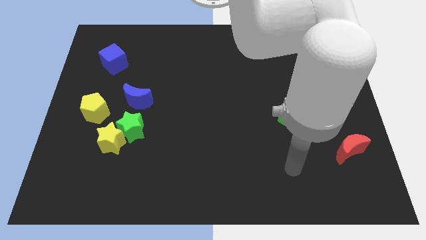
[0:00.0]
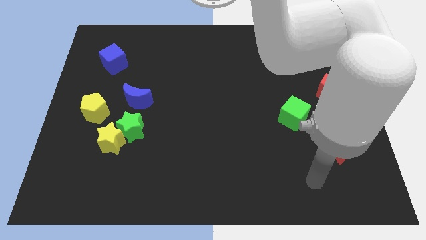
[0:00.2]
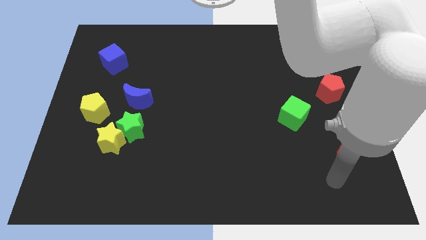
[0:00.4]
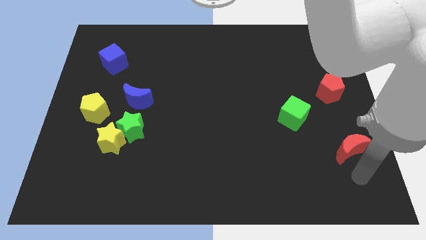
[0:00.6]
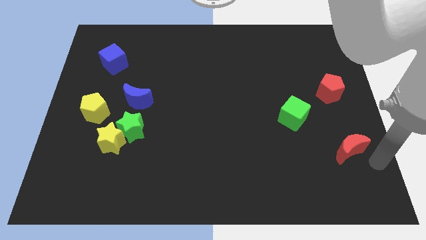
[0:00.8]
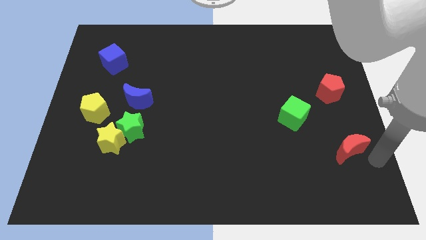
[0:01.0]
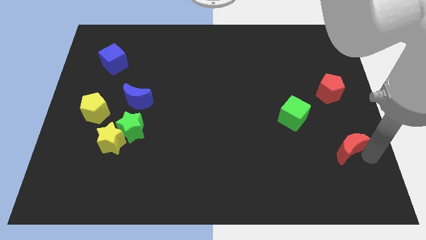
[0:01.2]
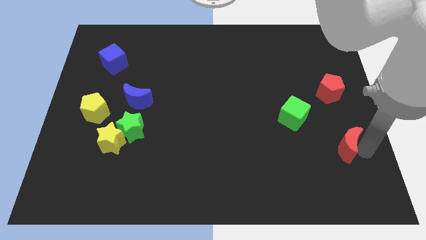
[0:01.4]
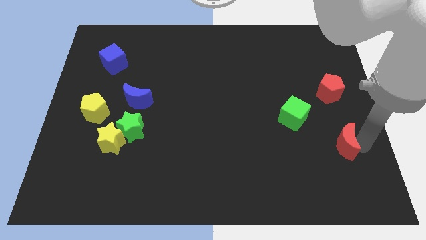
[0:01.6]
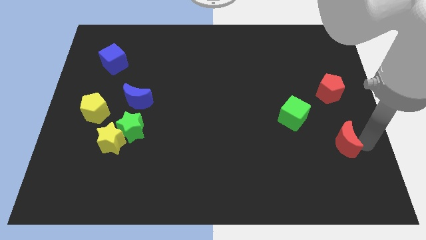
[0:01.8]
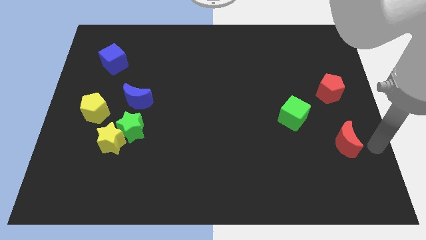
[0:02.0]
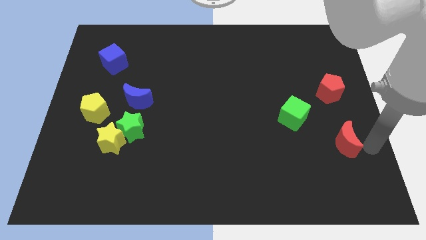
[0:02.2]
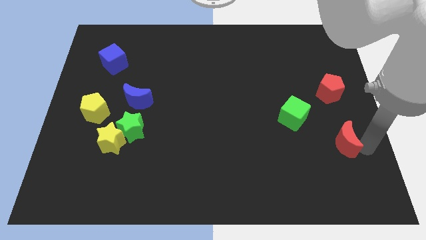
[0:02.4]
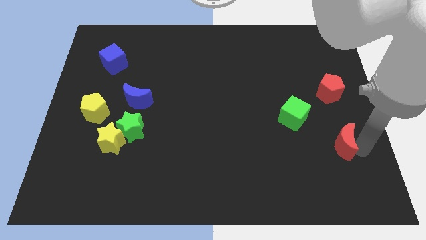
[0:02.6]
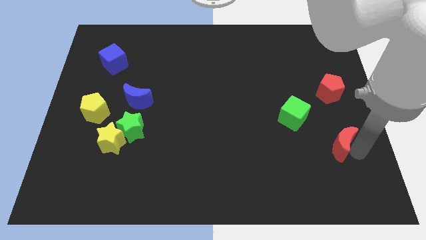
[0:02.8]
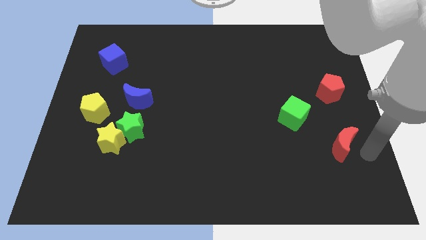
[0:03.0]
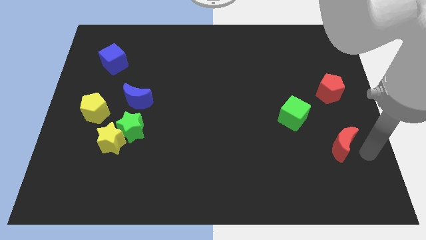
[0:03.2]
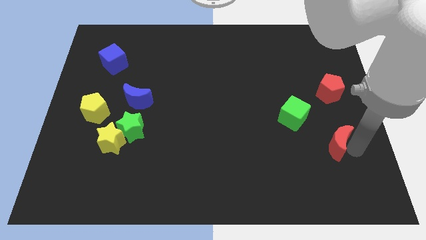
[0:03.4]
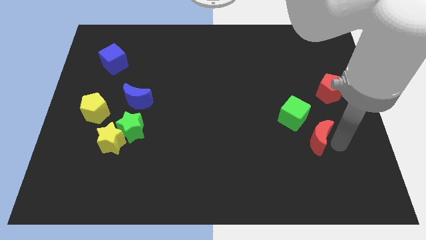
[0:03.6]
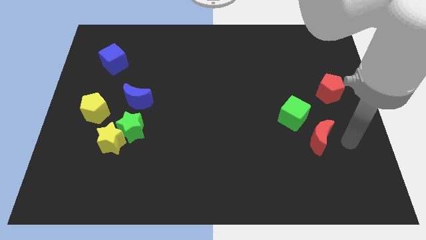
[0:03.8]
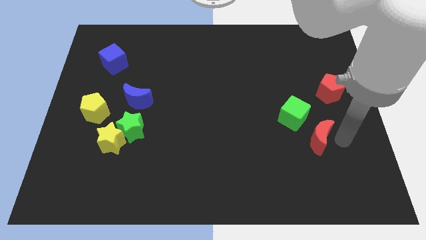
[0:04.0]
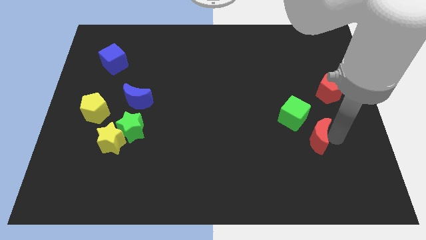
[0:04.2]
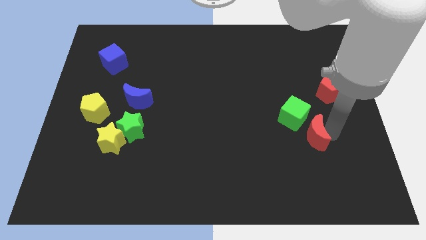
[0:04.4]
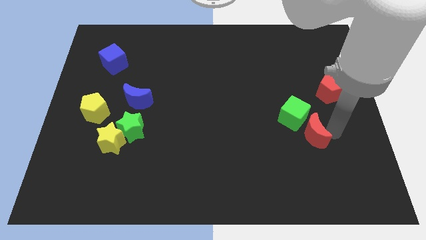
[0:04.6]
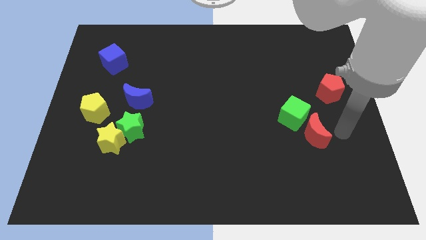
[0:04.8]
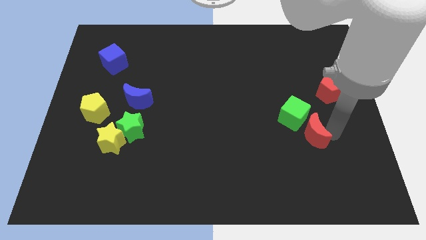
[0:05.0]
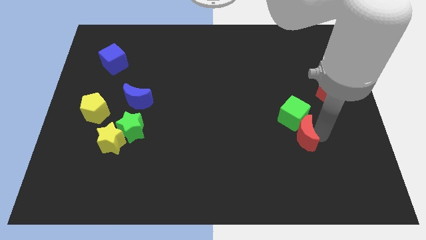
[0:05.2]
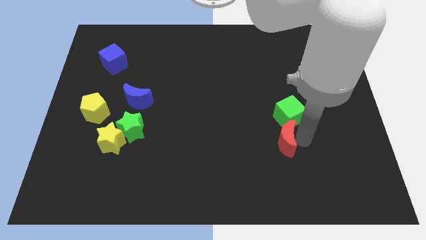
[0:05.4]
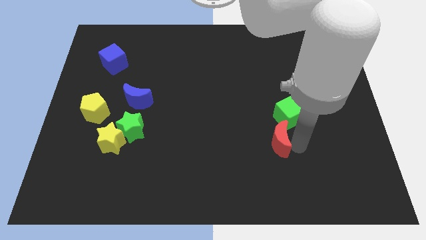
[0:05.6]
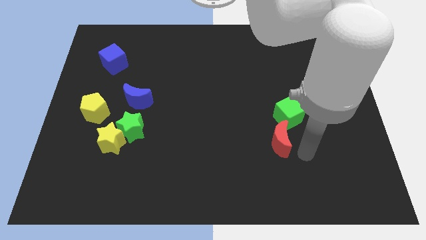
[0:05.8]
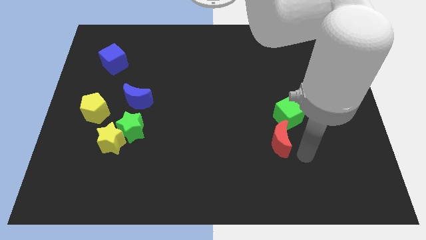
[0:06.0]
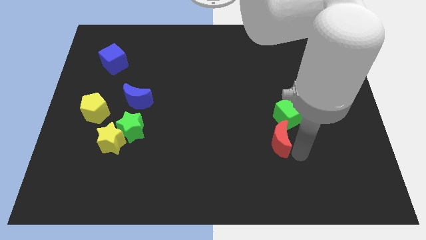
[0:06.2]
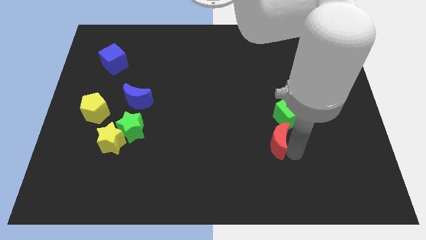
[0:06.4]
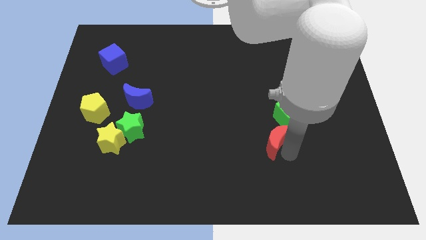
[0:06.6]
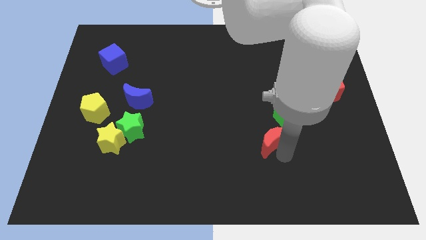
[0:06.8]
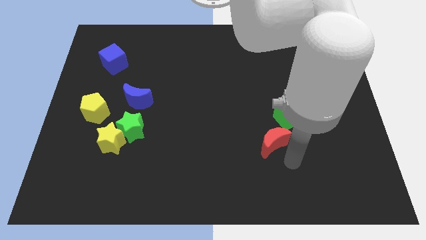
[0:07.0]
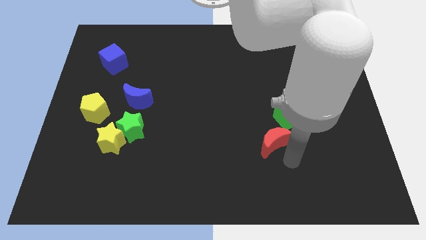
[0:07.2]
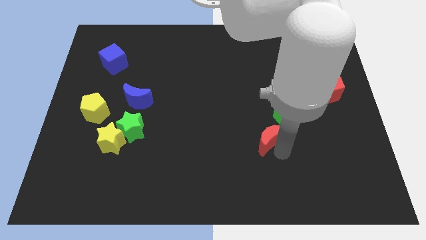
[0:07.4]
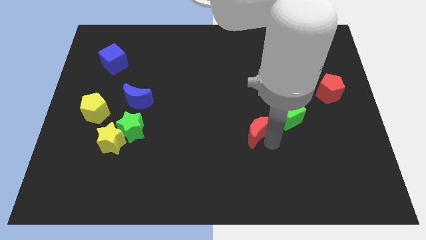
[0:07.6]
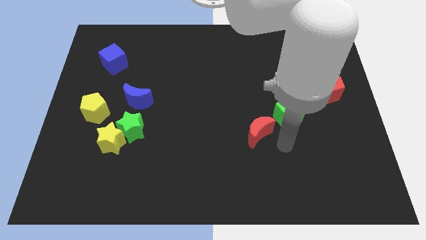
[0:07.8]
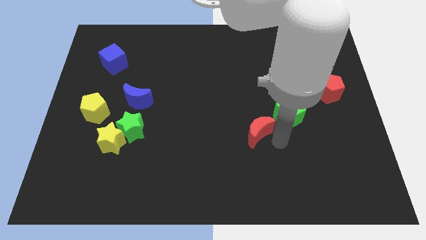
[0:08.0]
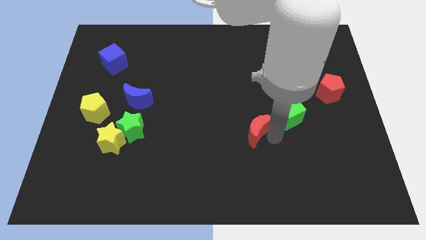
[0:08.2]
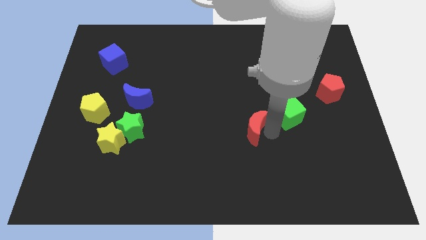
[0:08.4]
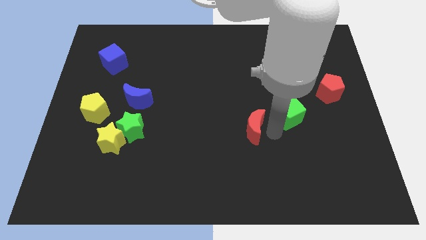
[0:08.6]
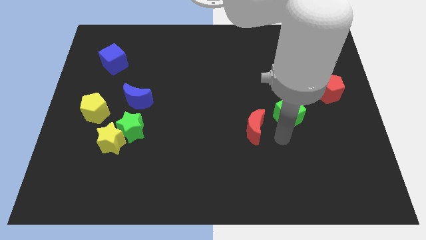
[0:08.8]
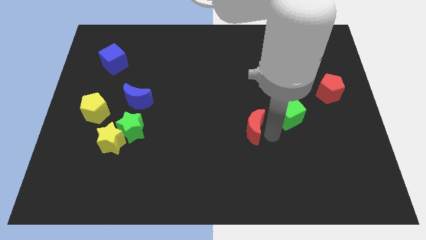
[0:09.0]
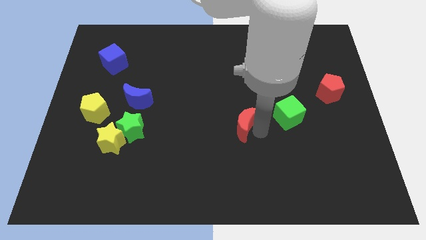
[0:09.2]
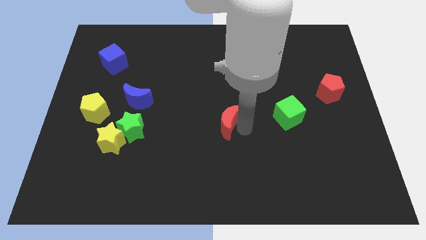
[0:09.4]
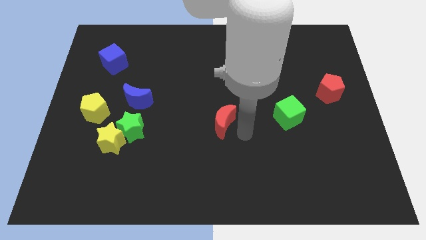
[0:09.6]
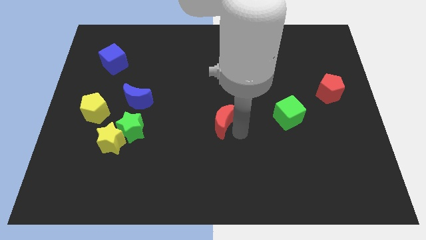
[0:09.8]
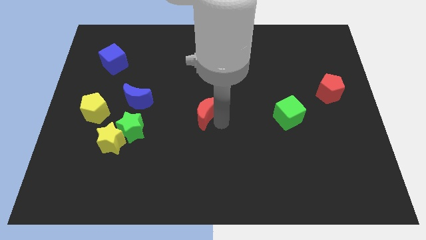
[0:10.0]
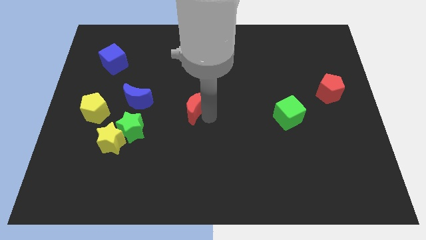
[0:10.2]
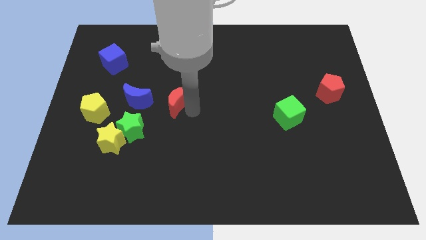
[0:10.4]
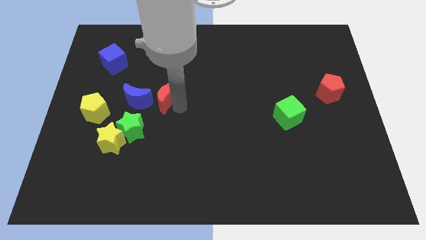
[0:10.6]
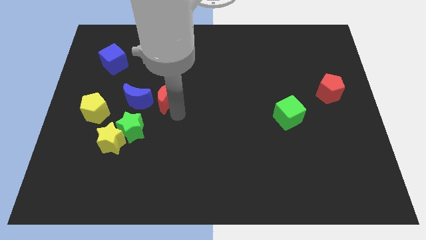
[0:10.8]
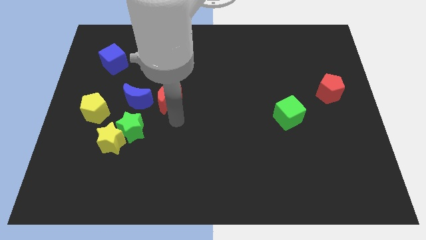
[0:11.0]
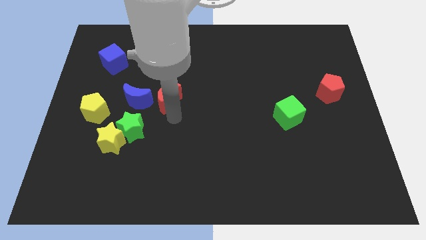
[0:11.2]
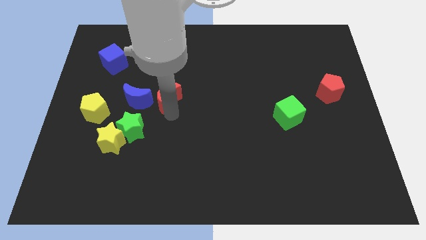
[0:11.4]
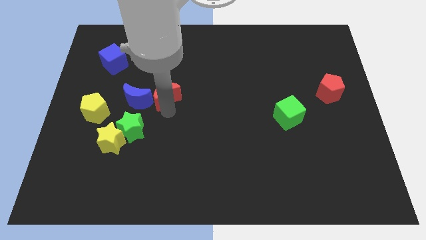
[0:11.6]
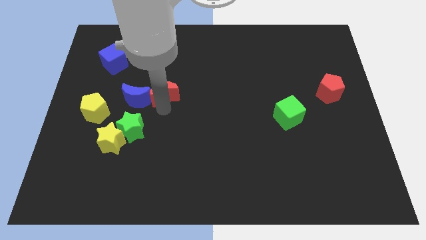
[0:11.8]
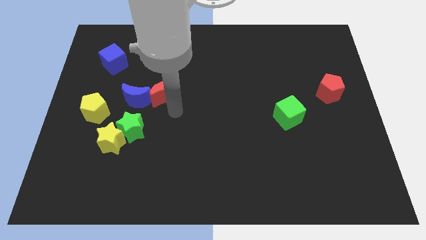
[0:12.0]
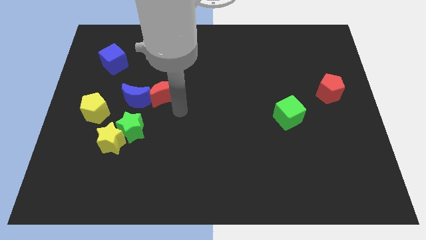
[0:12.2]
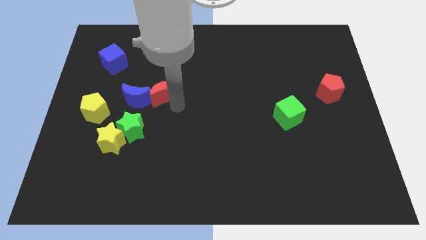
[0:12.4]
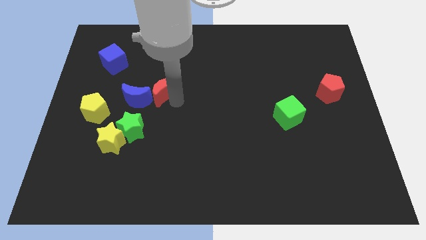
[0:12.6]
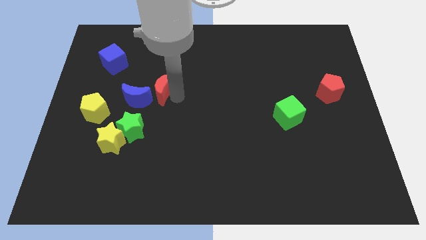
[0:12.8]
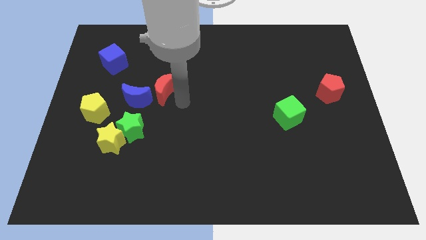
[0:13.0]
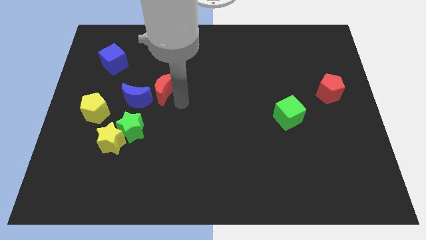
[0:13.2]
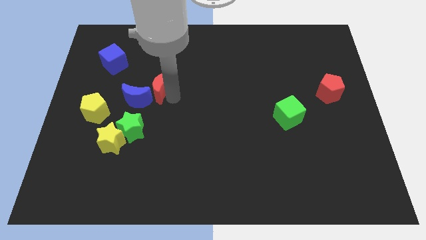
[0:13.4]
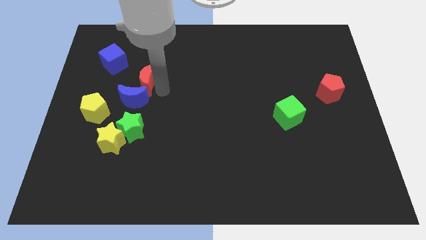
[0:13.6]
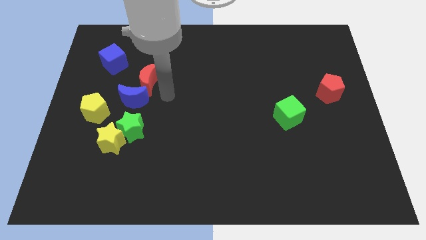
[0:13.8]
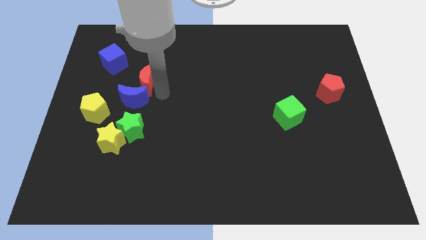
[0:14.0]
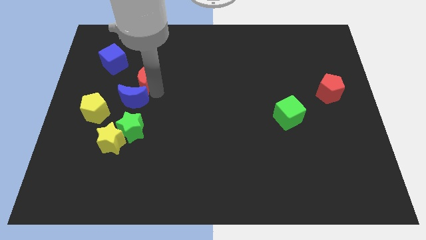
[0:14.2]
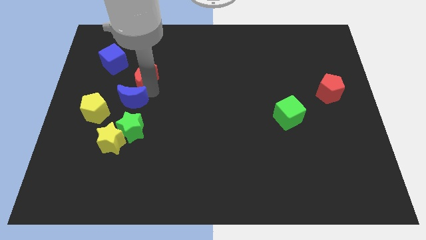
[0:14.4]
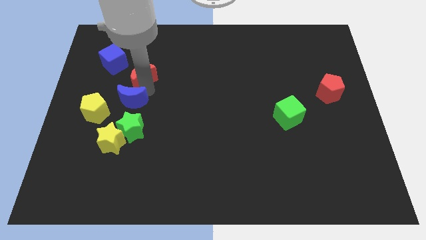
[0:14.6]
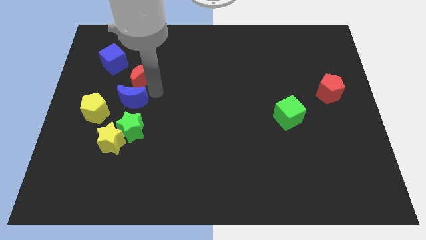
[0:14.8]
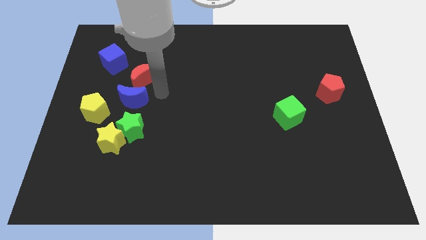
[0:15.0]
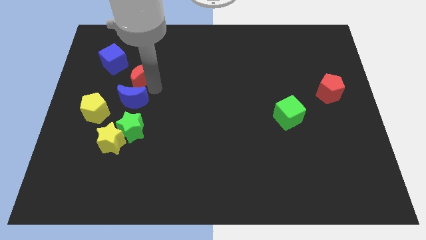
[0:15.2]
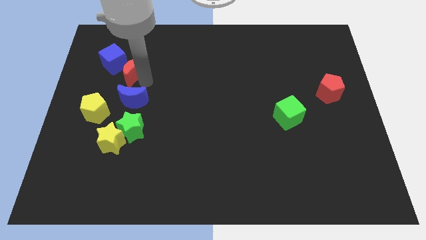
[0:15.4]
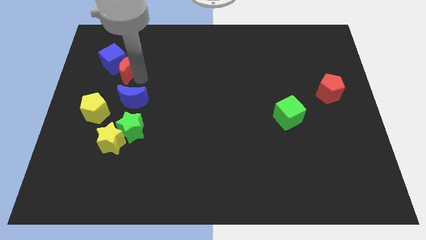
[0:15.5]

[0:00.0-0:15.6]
push the red moon to the blue cube
